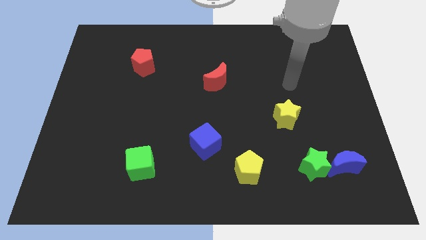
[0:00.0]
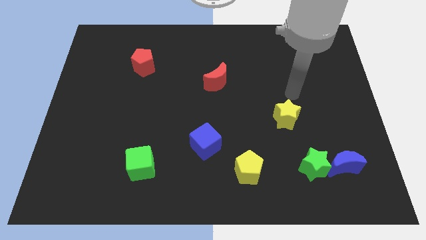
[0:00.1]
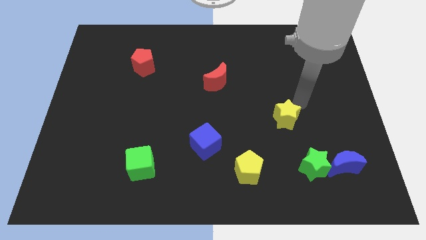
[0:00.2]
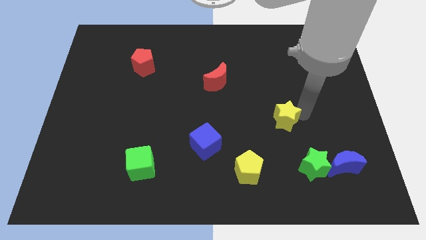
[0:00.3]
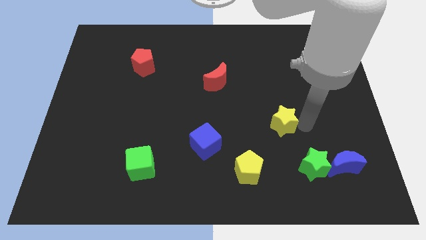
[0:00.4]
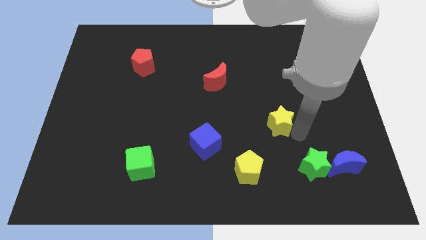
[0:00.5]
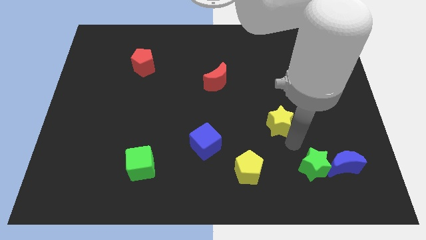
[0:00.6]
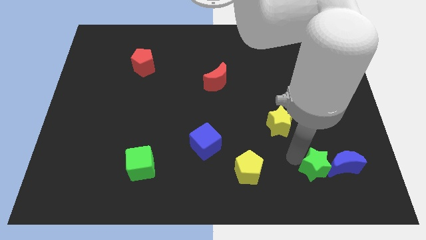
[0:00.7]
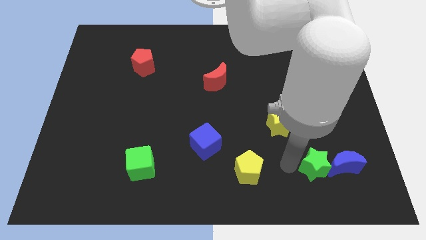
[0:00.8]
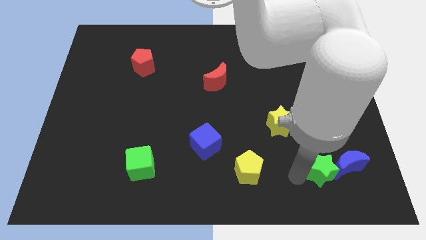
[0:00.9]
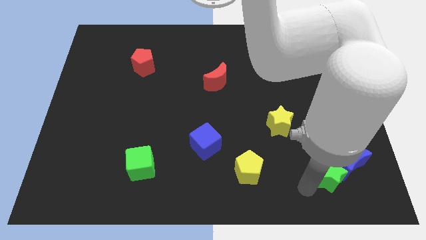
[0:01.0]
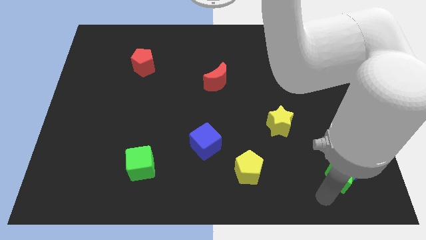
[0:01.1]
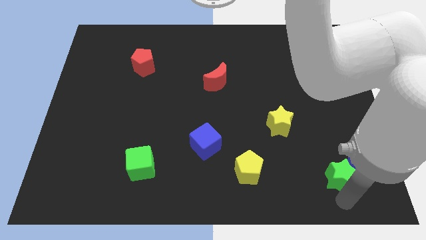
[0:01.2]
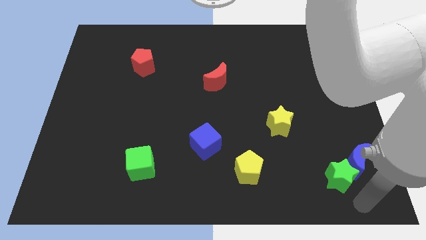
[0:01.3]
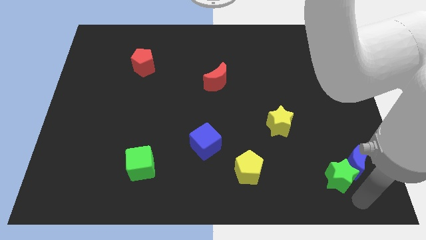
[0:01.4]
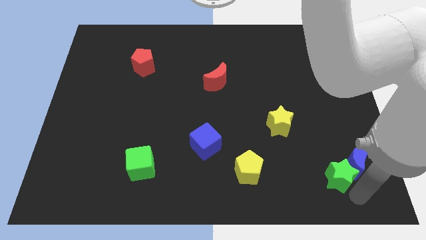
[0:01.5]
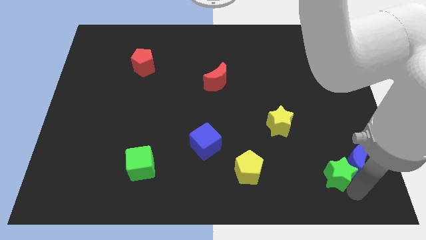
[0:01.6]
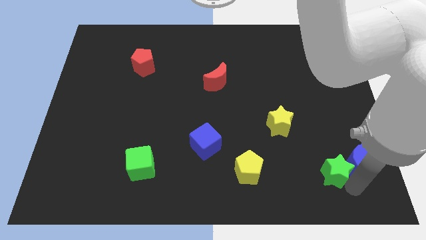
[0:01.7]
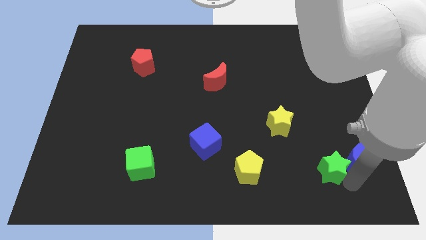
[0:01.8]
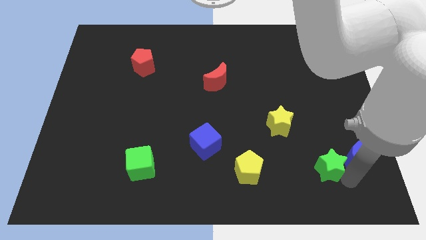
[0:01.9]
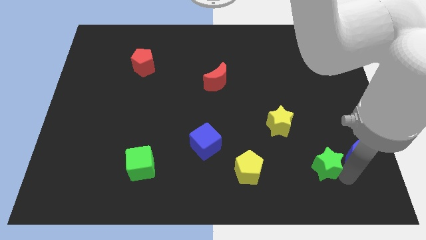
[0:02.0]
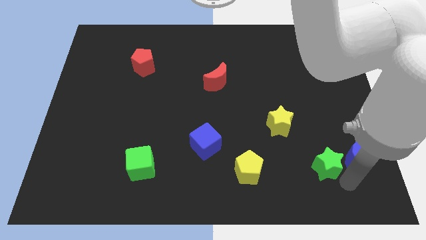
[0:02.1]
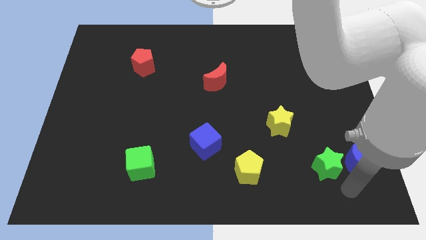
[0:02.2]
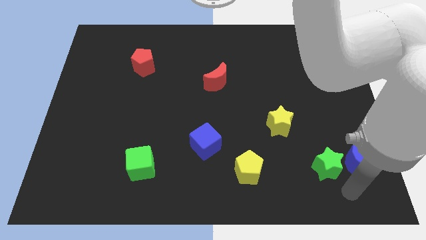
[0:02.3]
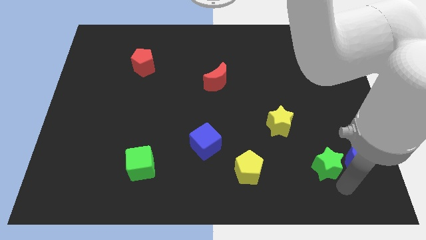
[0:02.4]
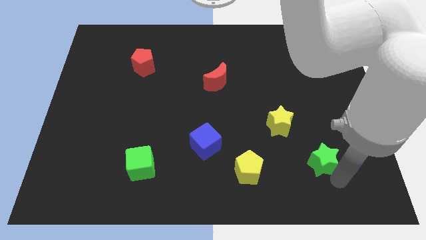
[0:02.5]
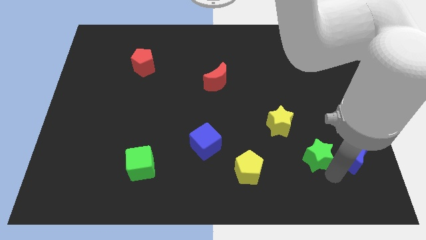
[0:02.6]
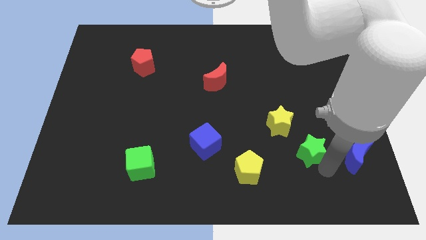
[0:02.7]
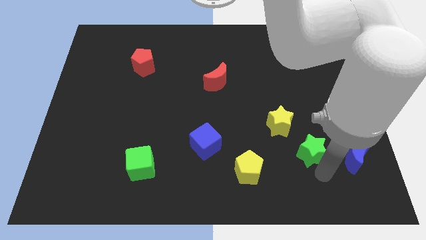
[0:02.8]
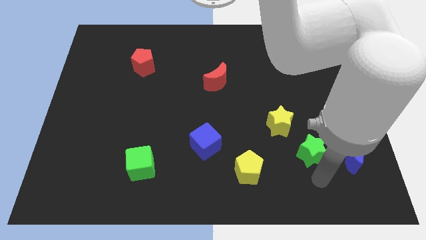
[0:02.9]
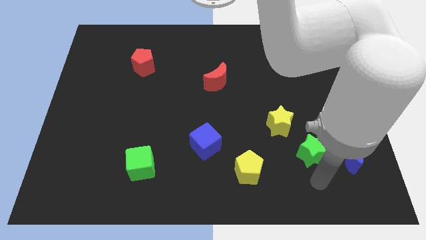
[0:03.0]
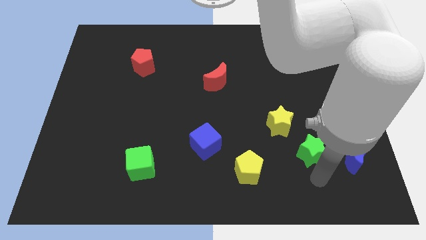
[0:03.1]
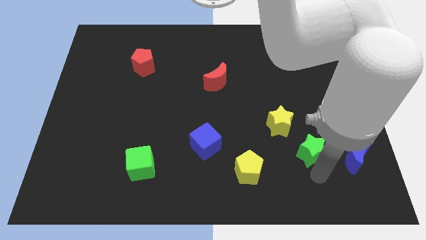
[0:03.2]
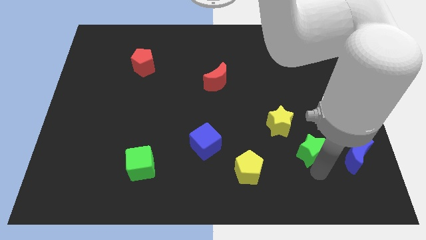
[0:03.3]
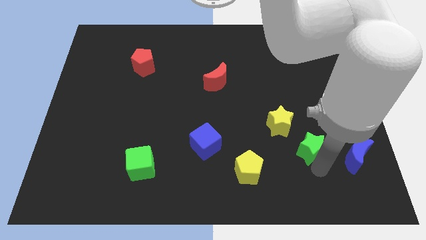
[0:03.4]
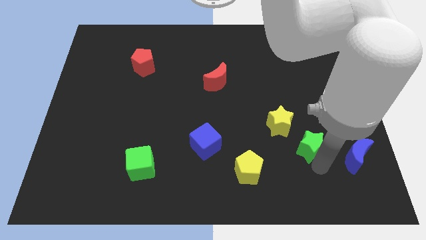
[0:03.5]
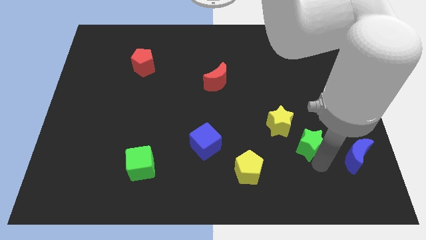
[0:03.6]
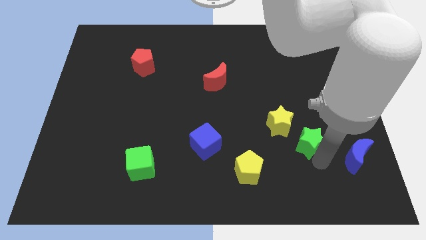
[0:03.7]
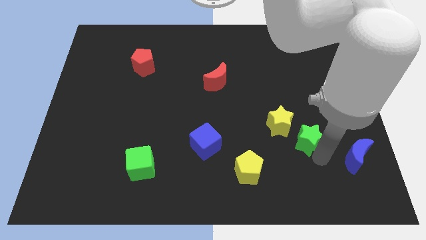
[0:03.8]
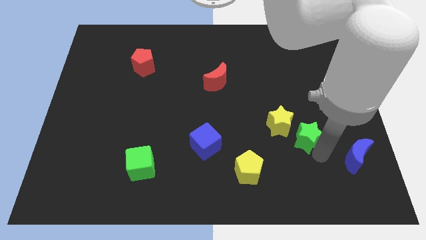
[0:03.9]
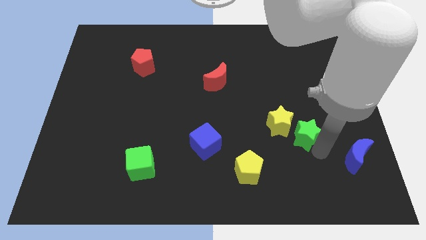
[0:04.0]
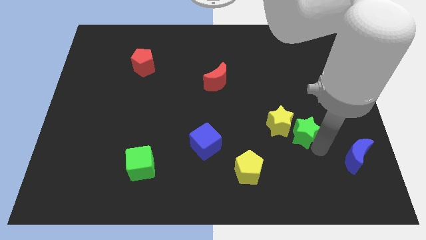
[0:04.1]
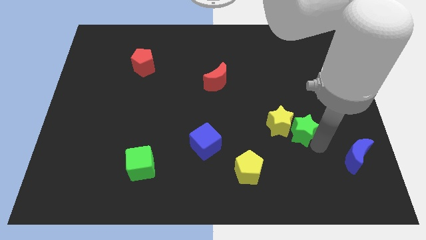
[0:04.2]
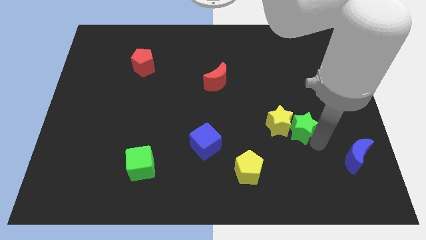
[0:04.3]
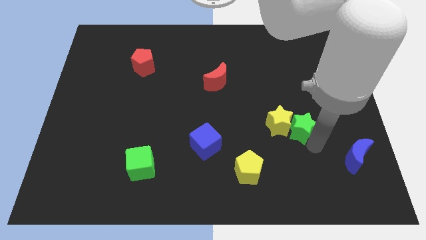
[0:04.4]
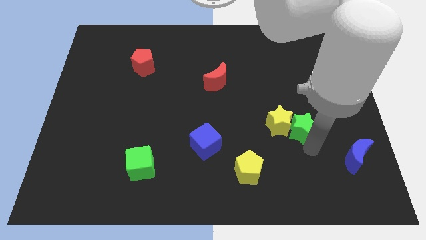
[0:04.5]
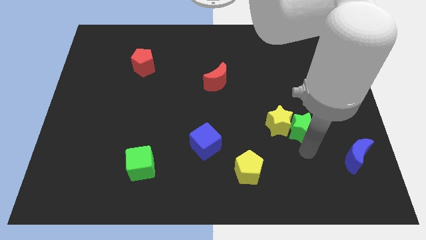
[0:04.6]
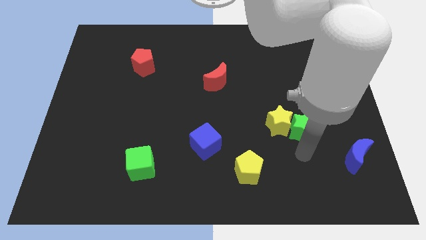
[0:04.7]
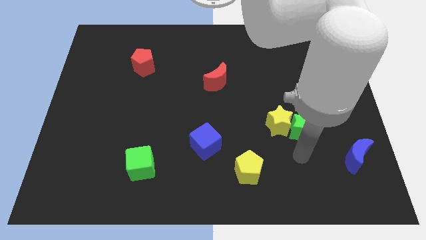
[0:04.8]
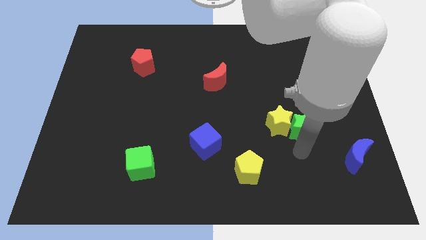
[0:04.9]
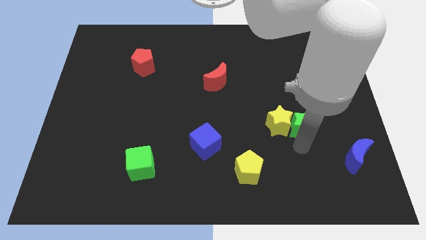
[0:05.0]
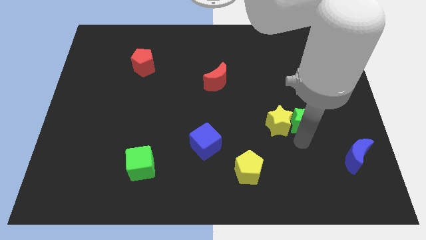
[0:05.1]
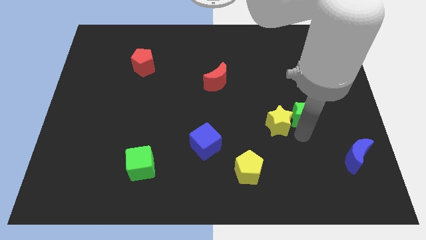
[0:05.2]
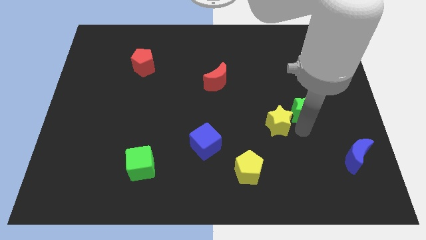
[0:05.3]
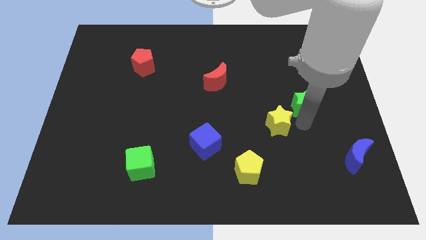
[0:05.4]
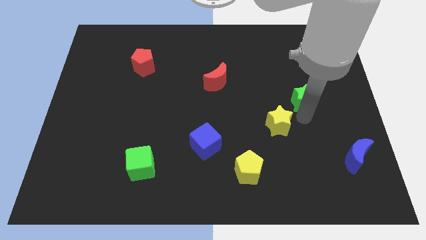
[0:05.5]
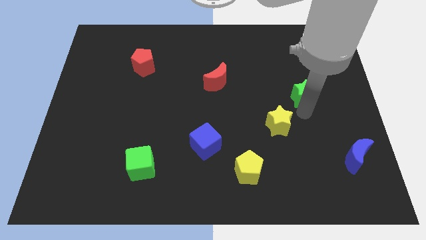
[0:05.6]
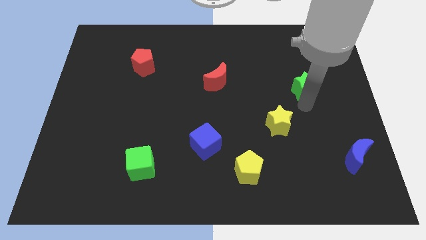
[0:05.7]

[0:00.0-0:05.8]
slide the green star upwards

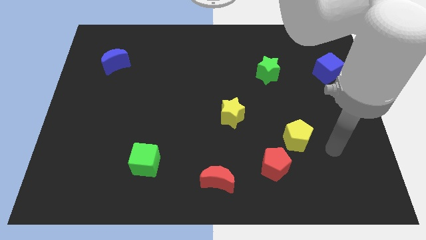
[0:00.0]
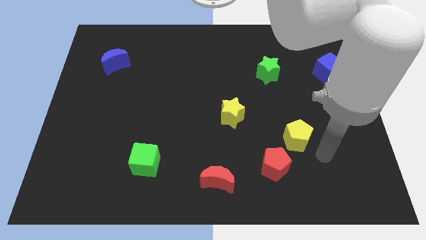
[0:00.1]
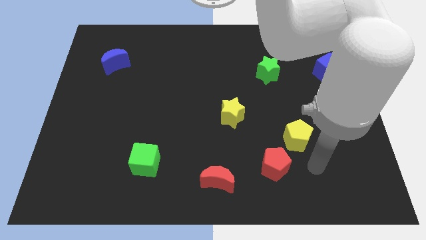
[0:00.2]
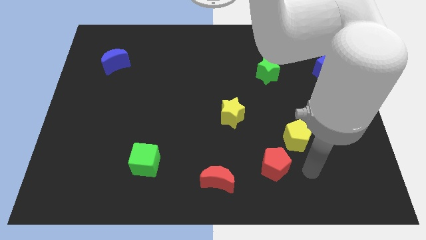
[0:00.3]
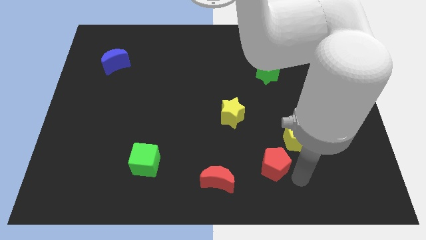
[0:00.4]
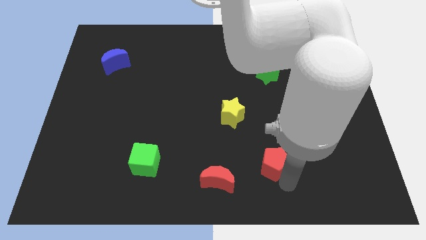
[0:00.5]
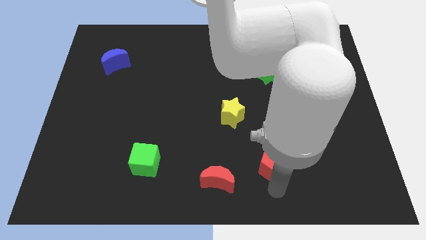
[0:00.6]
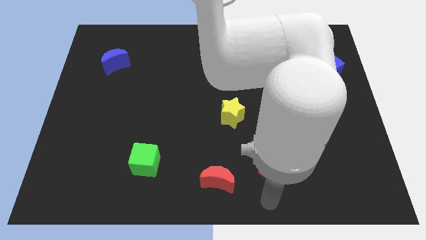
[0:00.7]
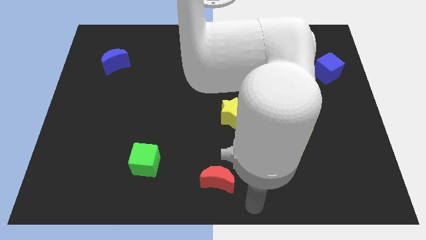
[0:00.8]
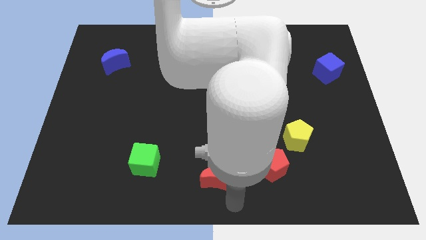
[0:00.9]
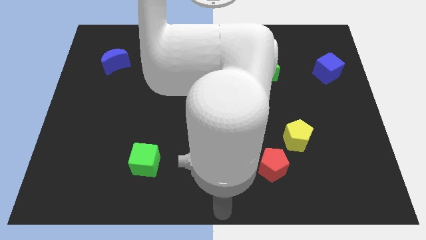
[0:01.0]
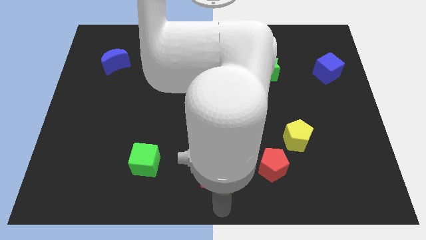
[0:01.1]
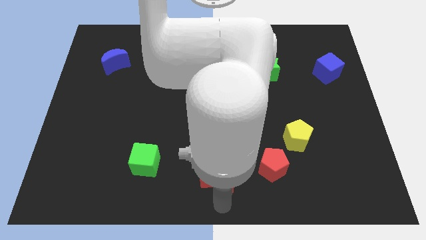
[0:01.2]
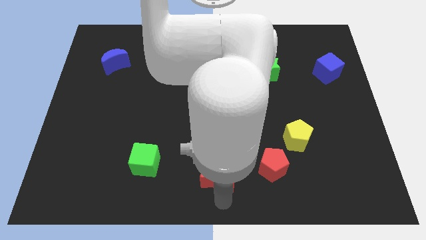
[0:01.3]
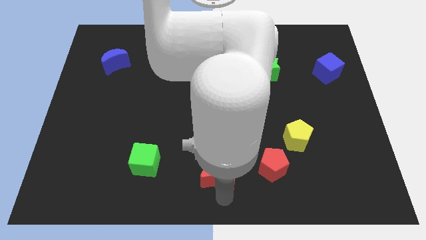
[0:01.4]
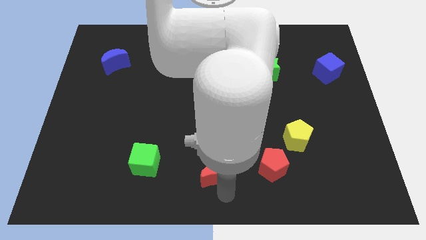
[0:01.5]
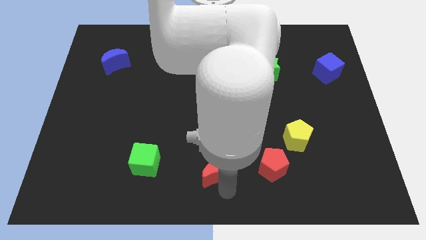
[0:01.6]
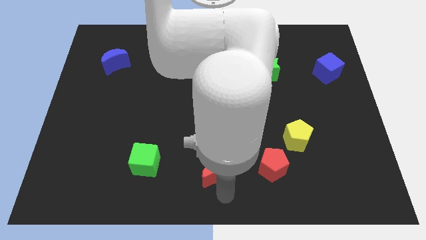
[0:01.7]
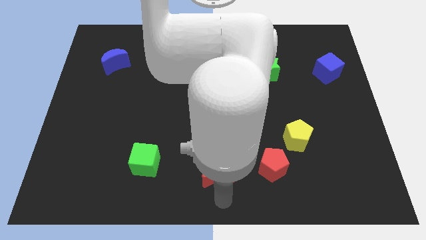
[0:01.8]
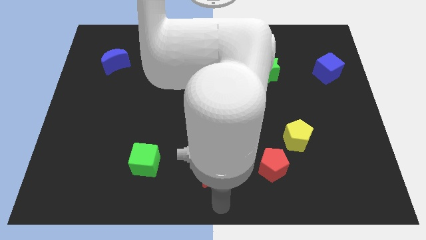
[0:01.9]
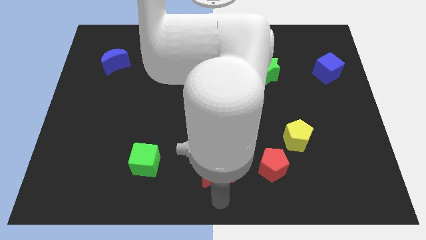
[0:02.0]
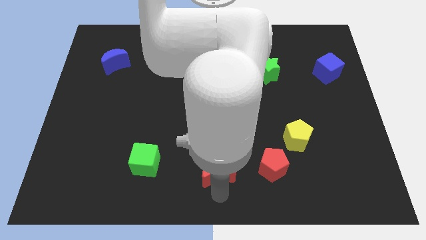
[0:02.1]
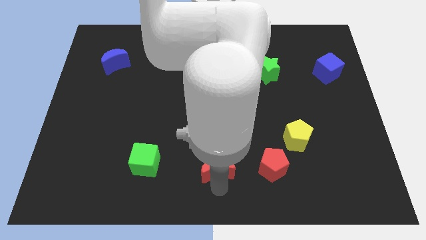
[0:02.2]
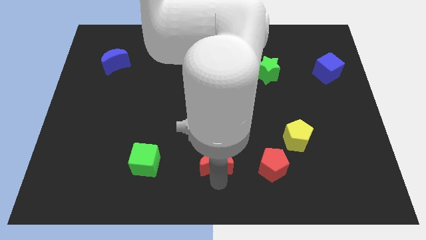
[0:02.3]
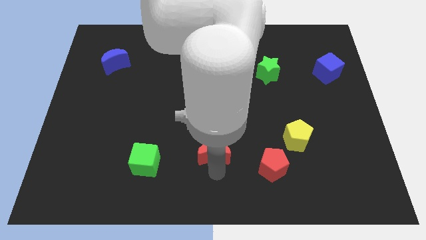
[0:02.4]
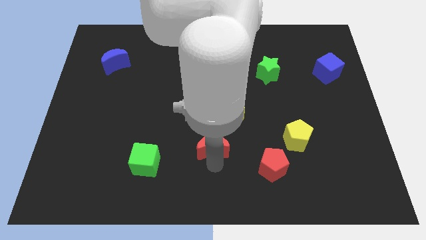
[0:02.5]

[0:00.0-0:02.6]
slightly push the red moon up
